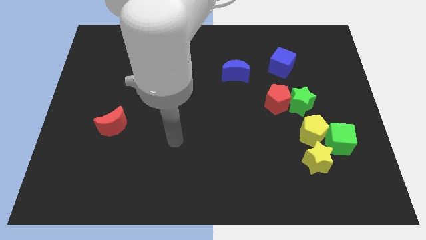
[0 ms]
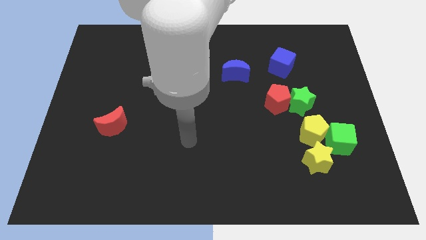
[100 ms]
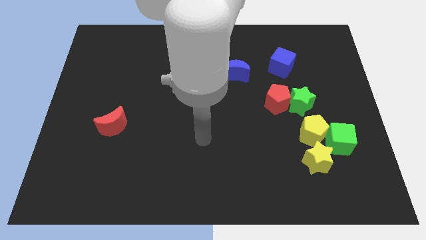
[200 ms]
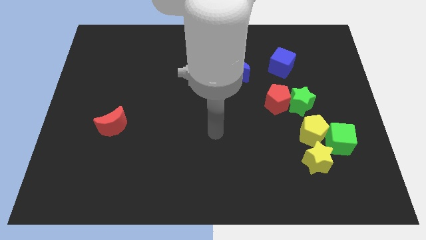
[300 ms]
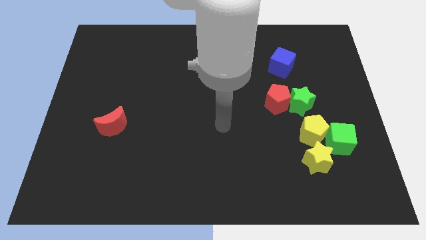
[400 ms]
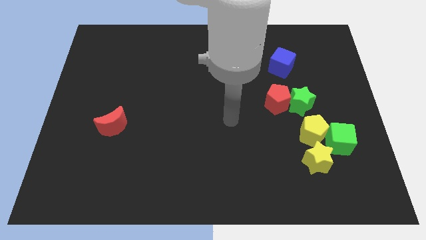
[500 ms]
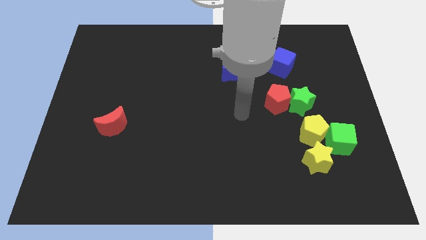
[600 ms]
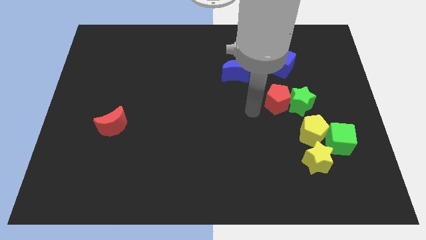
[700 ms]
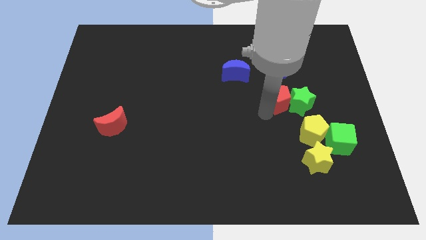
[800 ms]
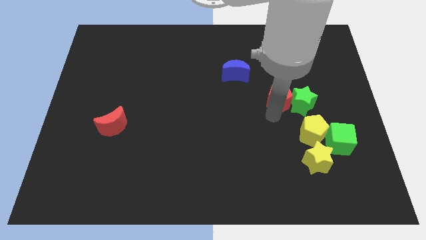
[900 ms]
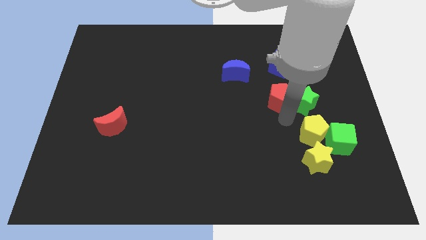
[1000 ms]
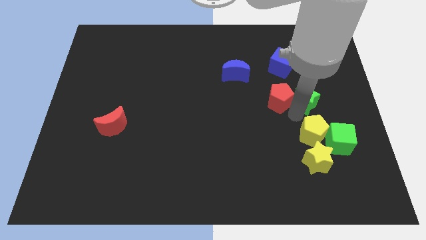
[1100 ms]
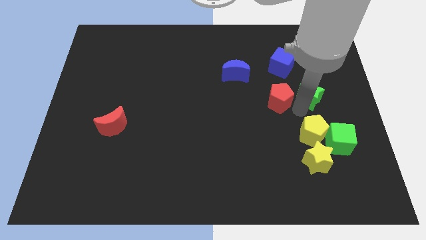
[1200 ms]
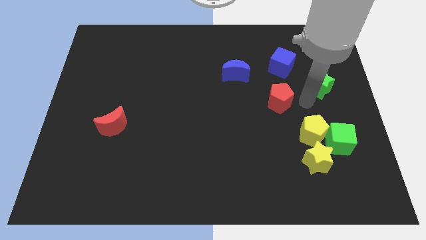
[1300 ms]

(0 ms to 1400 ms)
pull the red pentagon apart from the green star

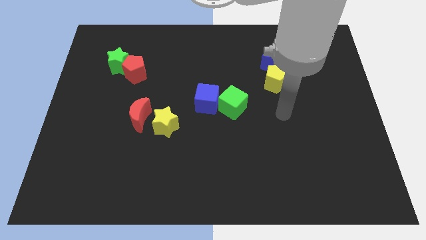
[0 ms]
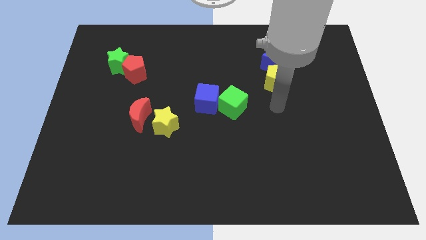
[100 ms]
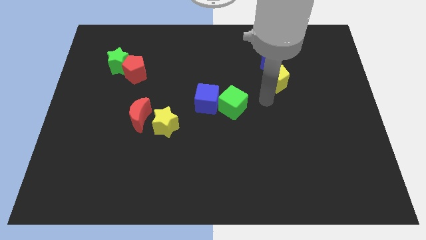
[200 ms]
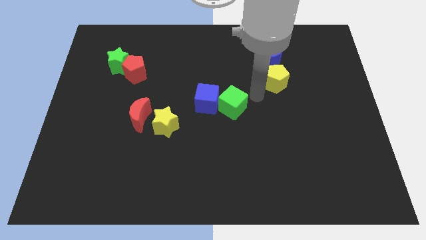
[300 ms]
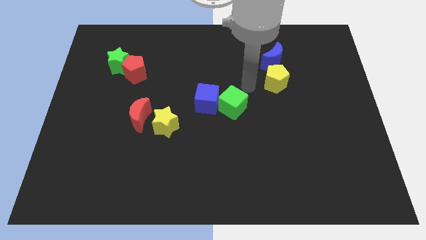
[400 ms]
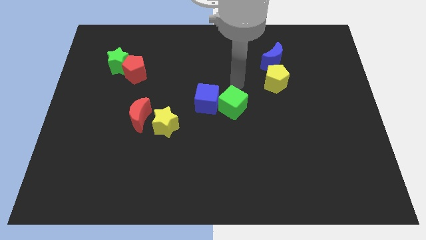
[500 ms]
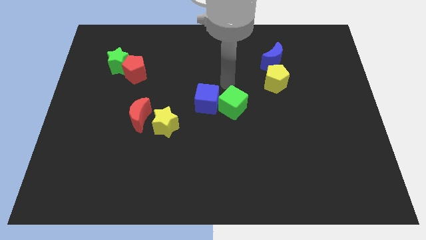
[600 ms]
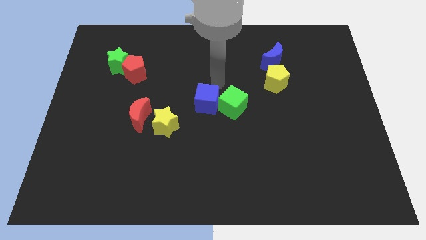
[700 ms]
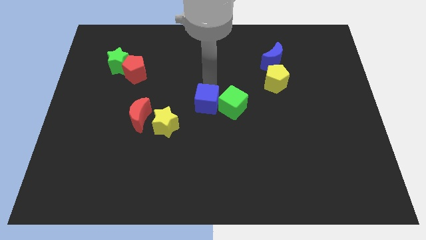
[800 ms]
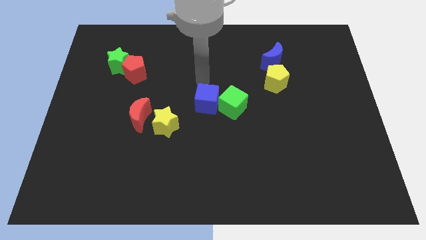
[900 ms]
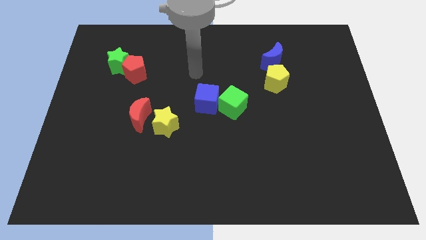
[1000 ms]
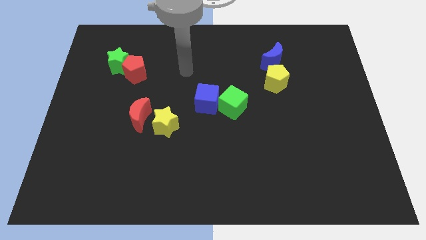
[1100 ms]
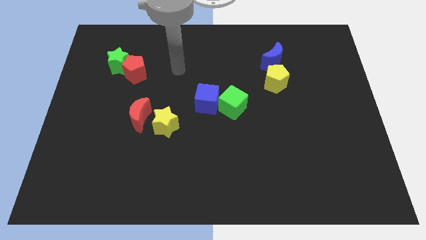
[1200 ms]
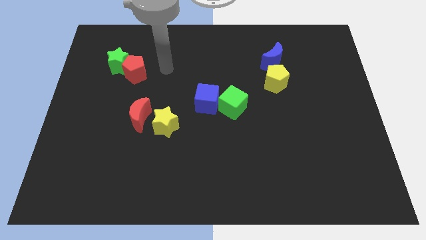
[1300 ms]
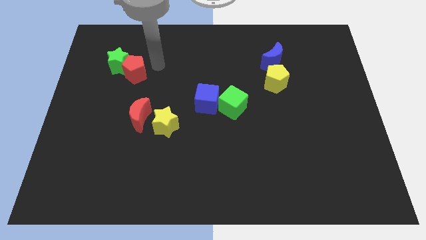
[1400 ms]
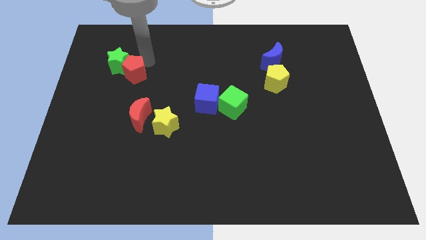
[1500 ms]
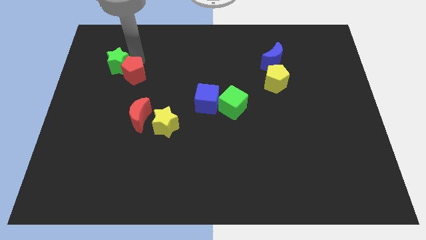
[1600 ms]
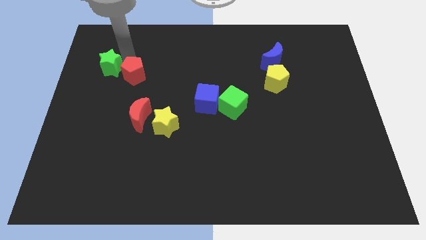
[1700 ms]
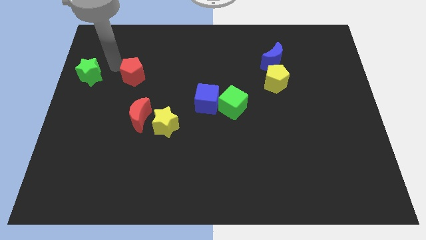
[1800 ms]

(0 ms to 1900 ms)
separate the red pentagon from the green star

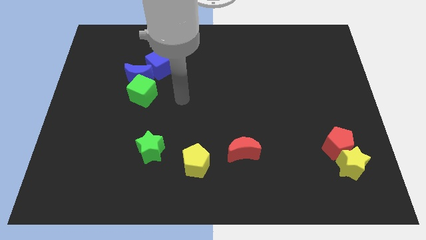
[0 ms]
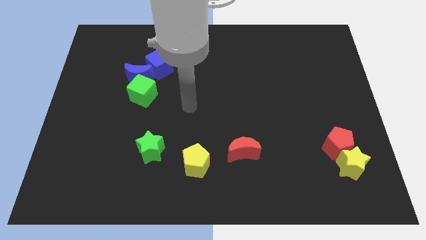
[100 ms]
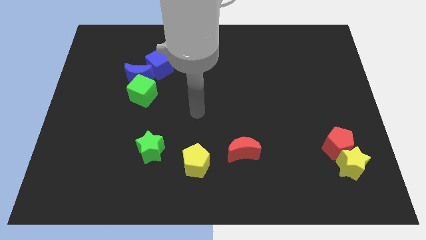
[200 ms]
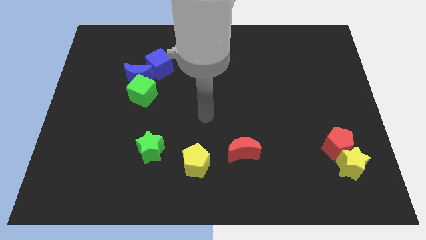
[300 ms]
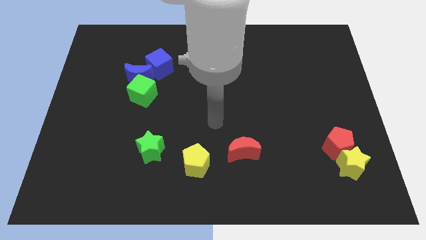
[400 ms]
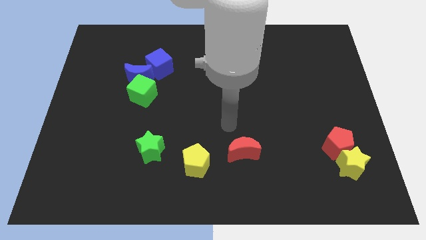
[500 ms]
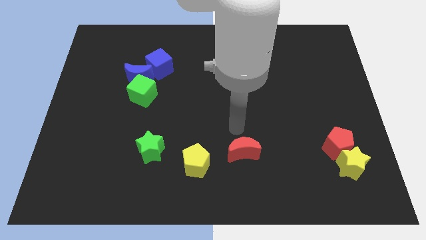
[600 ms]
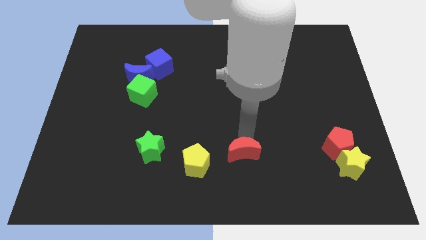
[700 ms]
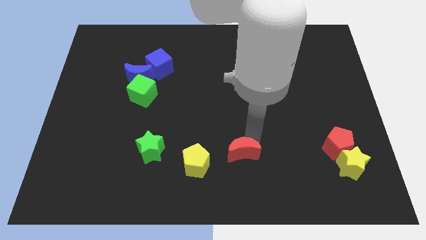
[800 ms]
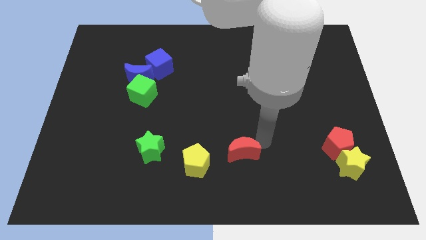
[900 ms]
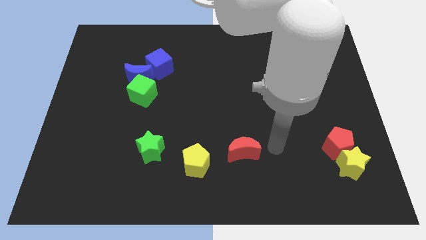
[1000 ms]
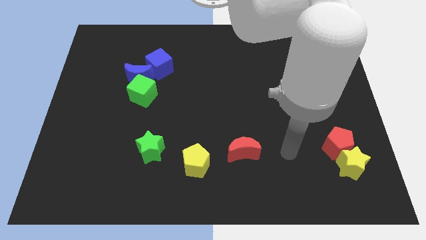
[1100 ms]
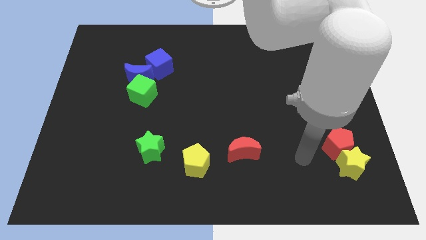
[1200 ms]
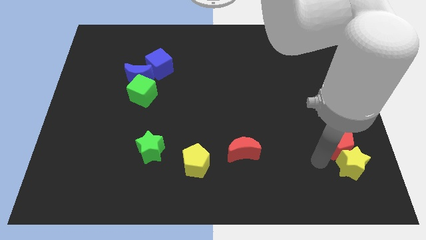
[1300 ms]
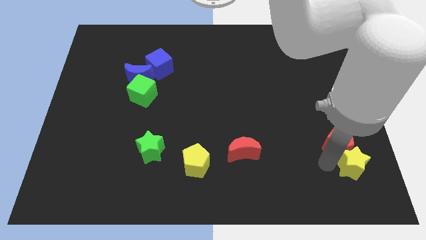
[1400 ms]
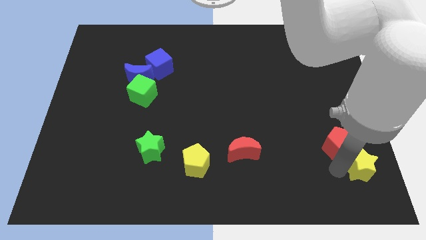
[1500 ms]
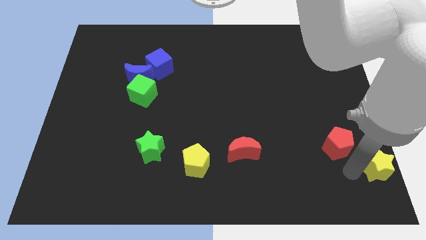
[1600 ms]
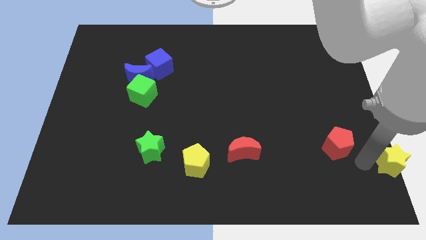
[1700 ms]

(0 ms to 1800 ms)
pull the red pentagon apart from the yellow star

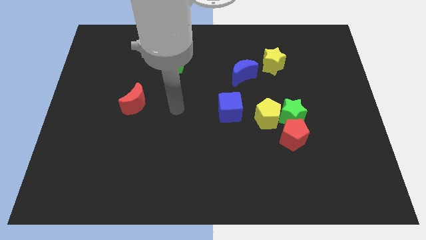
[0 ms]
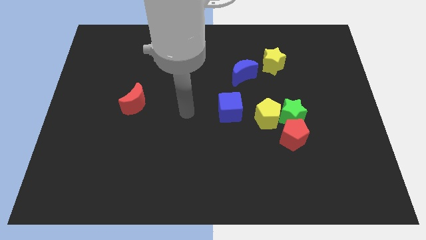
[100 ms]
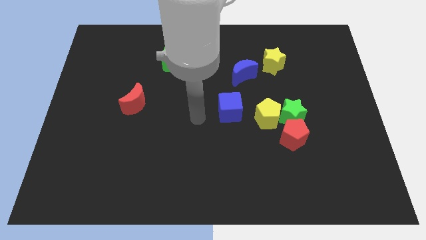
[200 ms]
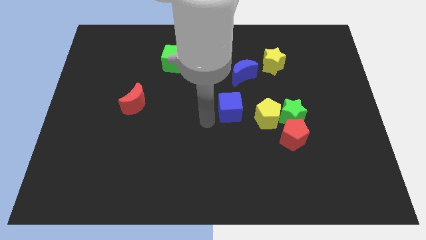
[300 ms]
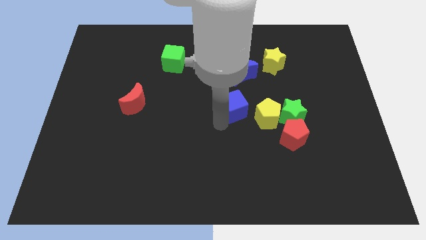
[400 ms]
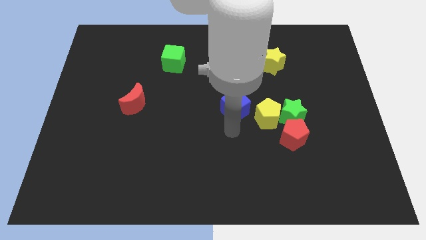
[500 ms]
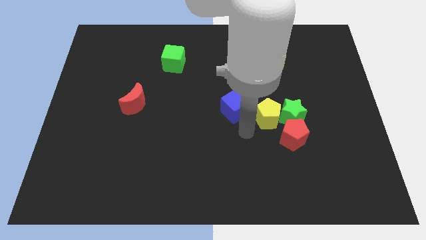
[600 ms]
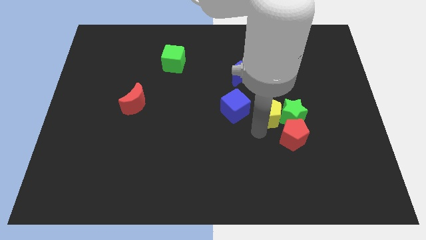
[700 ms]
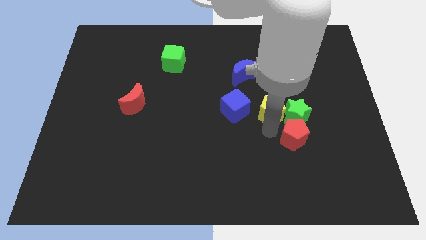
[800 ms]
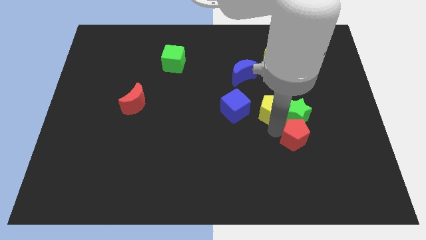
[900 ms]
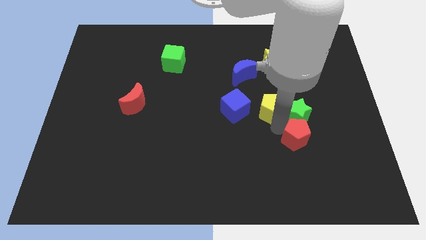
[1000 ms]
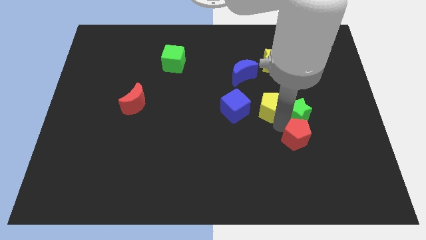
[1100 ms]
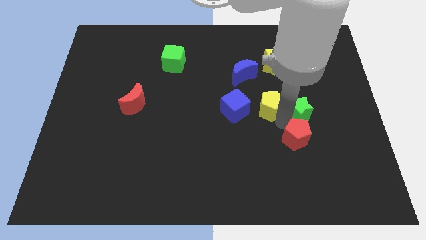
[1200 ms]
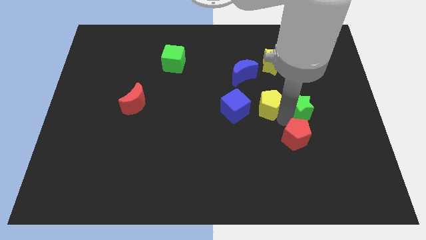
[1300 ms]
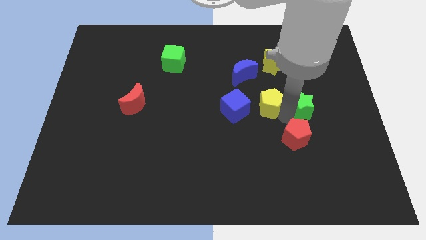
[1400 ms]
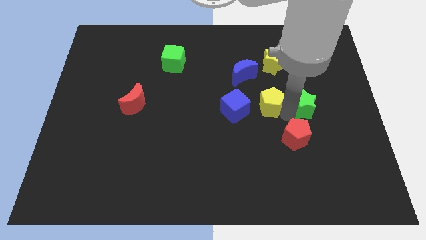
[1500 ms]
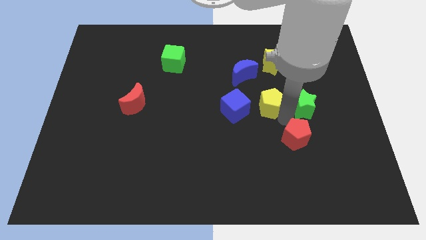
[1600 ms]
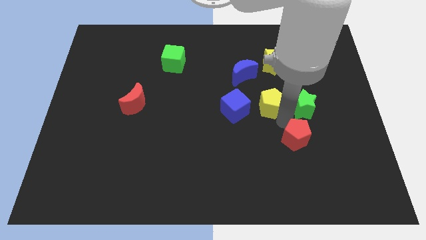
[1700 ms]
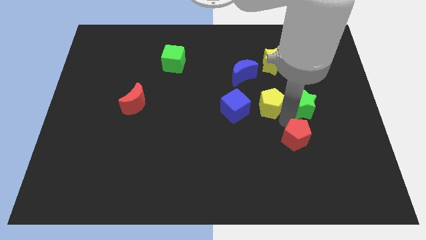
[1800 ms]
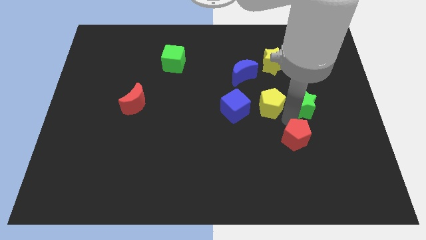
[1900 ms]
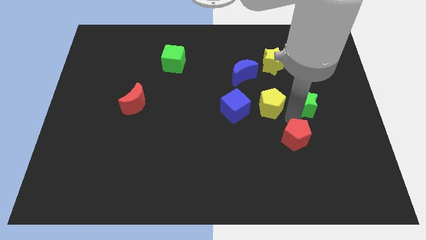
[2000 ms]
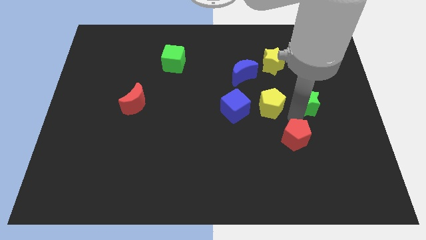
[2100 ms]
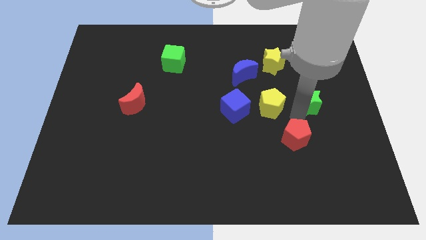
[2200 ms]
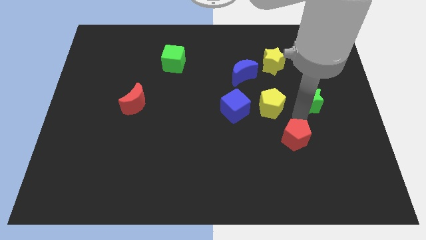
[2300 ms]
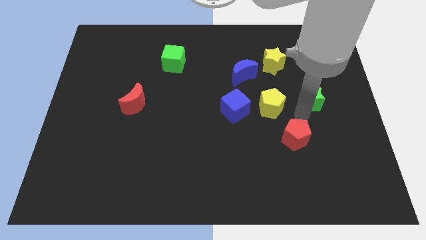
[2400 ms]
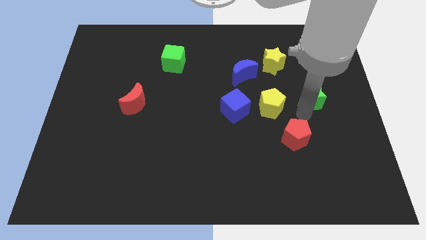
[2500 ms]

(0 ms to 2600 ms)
pull the green star apart from the yellow pentagon and red pentagon

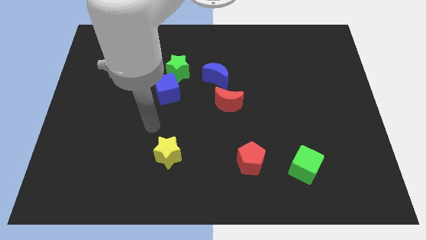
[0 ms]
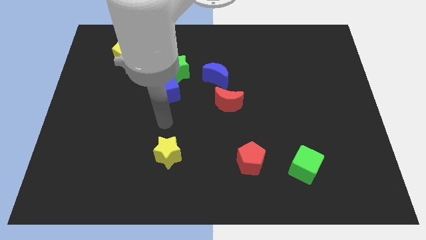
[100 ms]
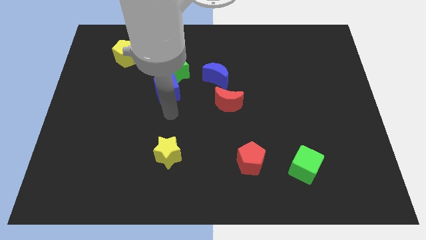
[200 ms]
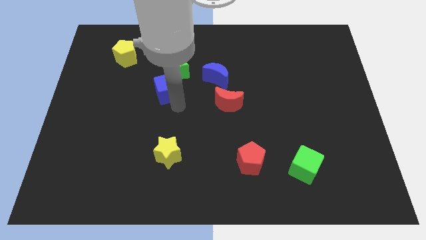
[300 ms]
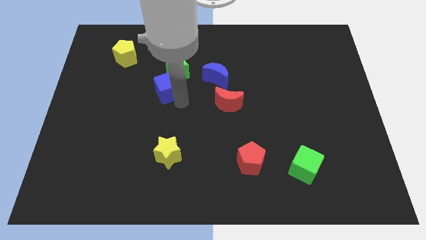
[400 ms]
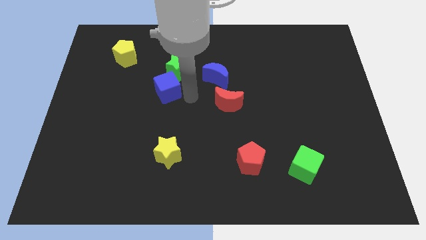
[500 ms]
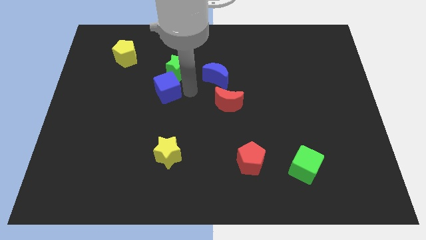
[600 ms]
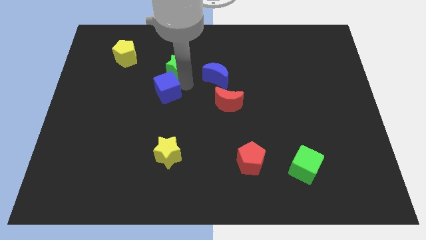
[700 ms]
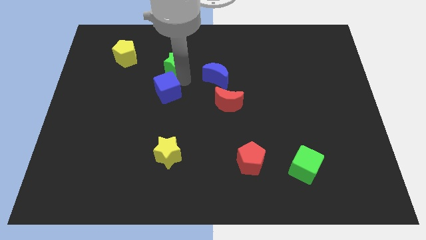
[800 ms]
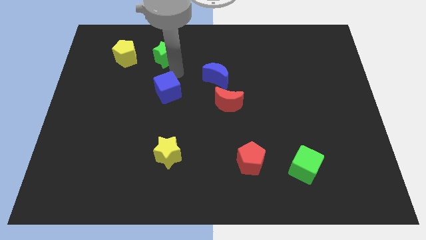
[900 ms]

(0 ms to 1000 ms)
pull the blue cube apart from the green star

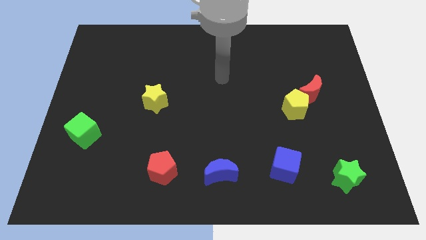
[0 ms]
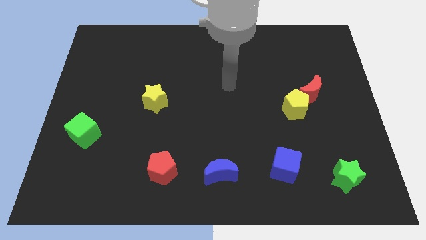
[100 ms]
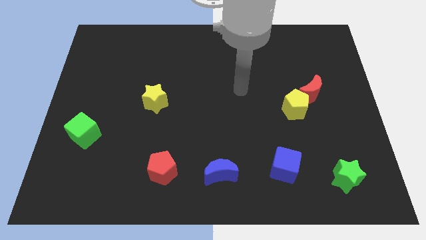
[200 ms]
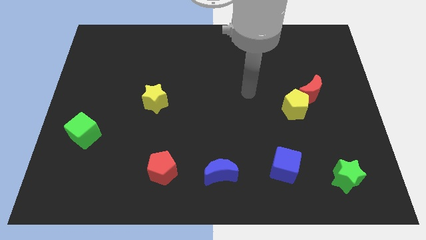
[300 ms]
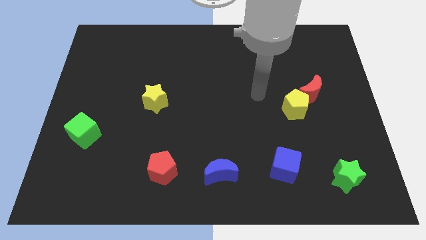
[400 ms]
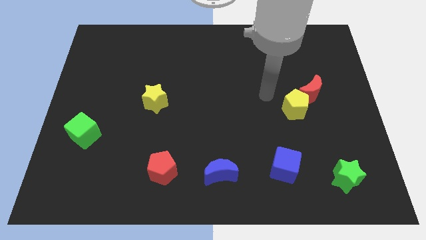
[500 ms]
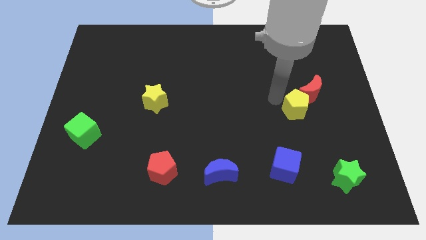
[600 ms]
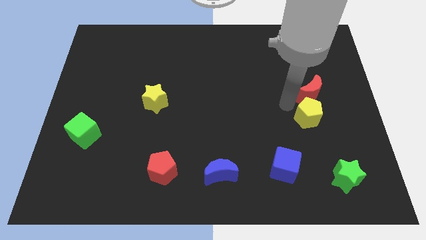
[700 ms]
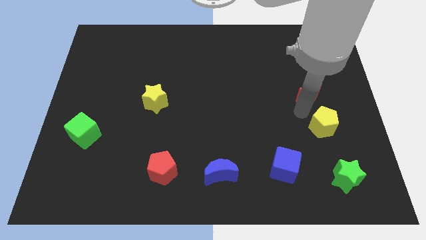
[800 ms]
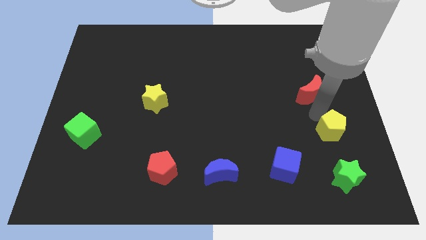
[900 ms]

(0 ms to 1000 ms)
pull the red moon apart from the yellow pentagon
